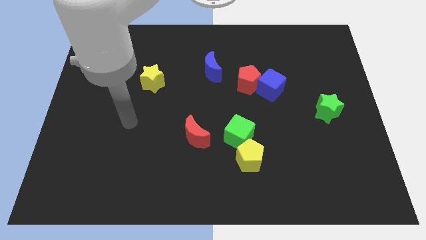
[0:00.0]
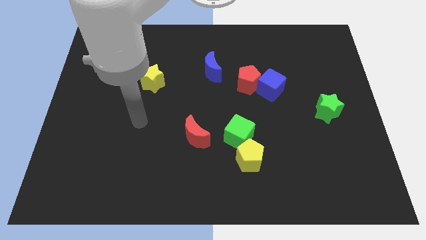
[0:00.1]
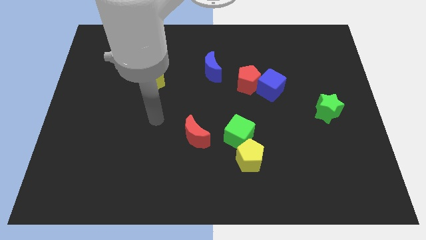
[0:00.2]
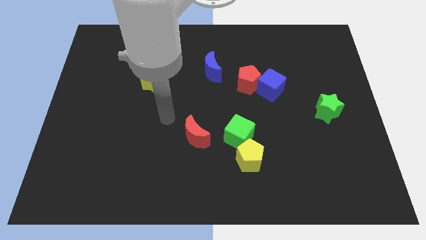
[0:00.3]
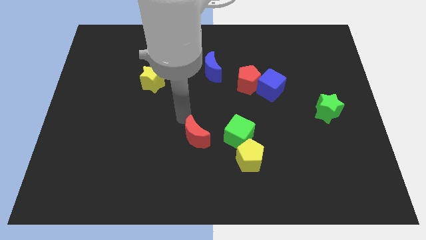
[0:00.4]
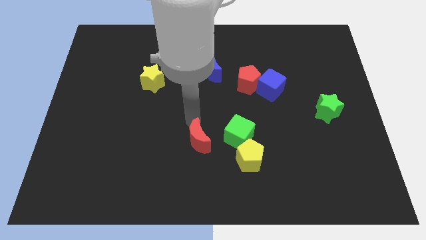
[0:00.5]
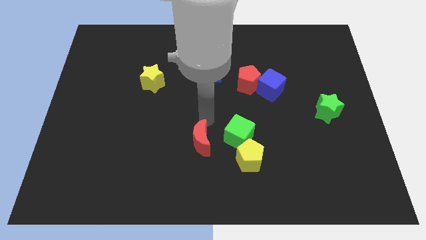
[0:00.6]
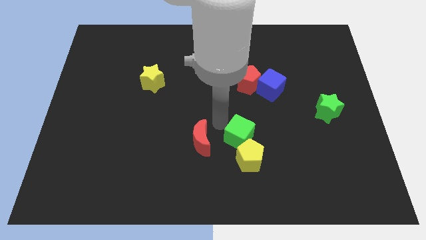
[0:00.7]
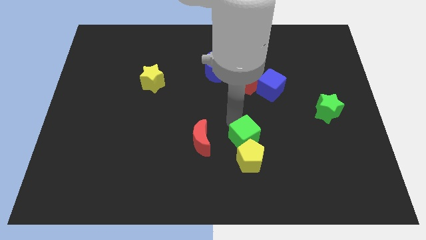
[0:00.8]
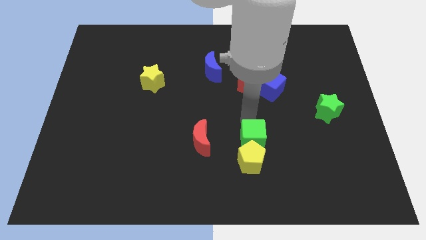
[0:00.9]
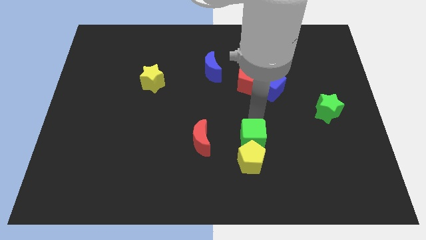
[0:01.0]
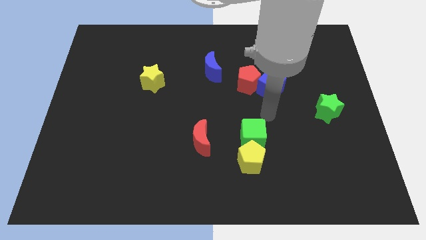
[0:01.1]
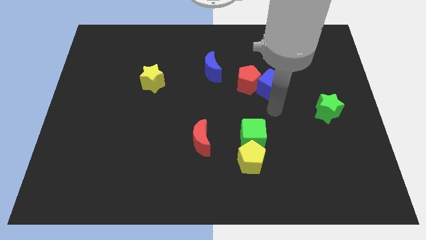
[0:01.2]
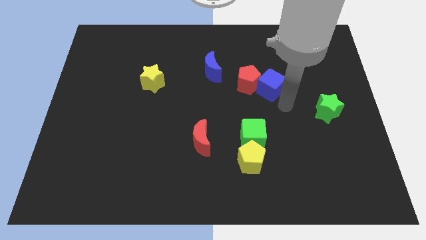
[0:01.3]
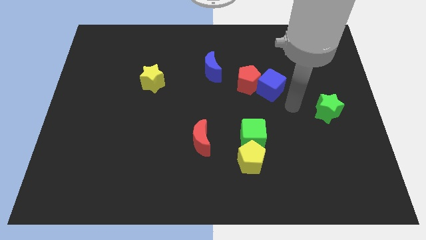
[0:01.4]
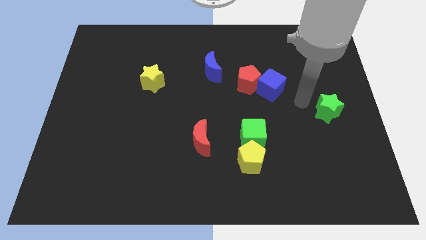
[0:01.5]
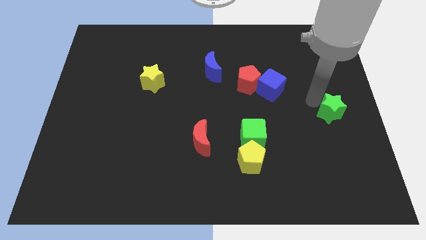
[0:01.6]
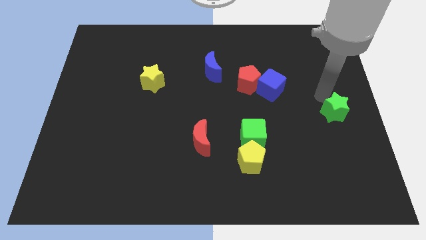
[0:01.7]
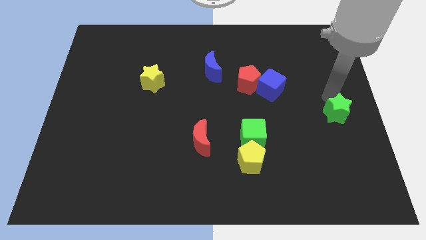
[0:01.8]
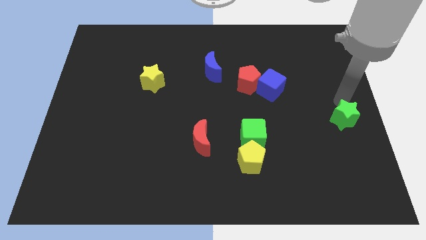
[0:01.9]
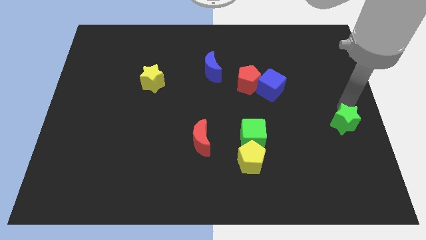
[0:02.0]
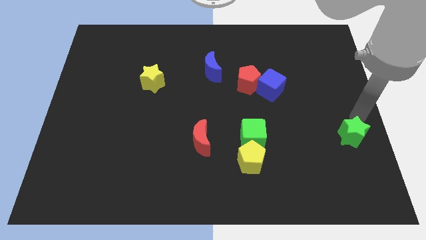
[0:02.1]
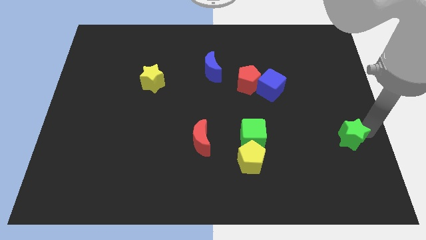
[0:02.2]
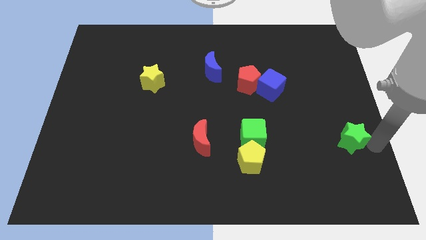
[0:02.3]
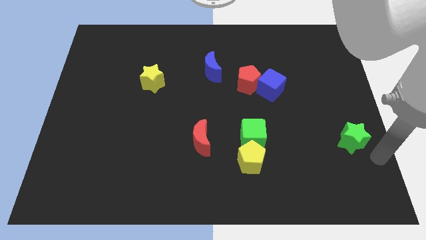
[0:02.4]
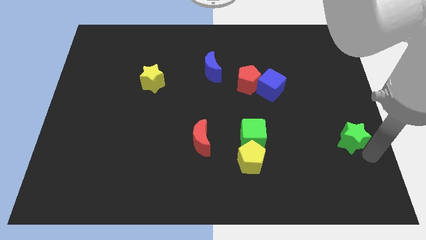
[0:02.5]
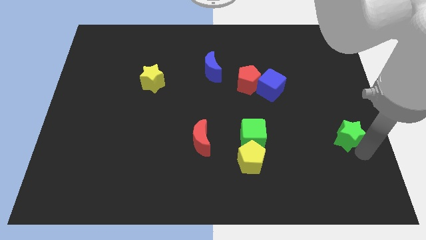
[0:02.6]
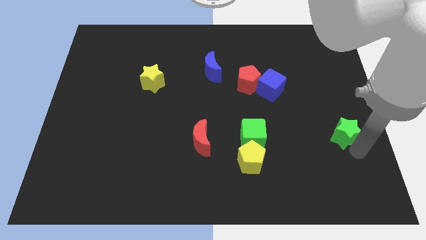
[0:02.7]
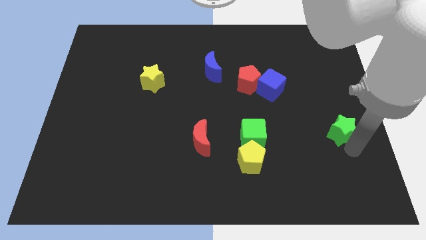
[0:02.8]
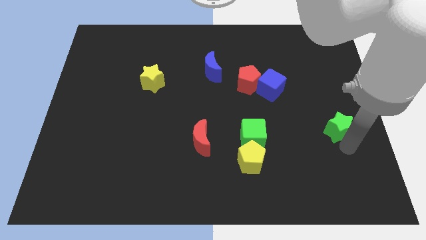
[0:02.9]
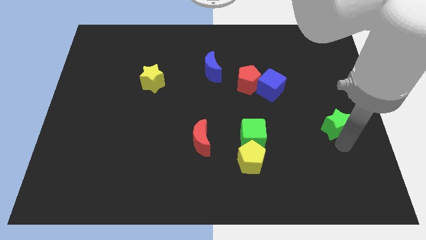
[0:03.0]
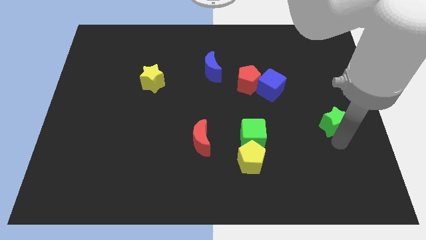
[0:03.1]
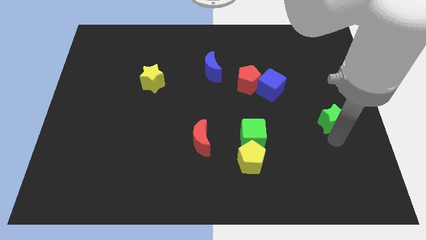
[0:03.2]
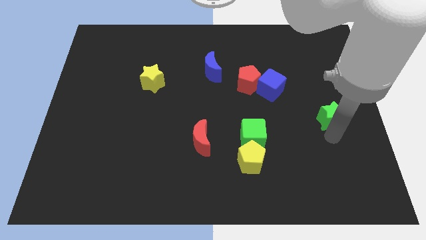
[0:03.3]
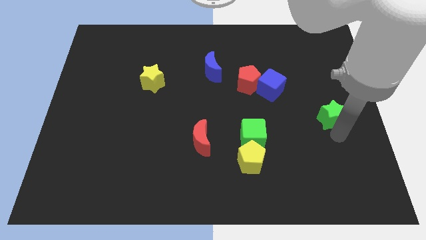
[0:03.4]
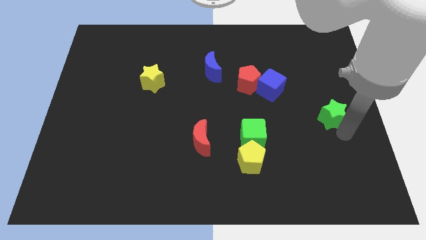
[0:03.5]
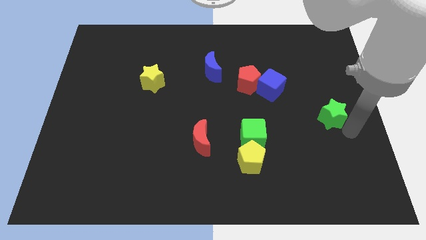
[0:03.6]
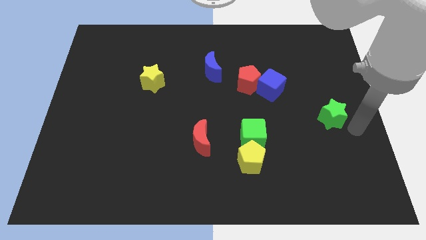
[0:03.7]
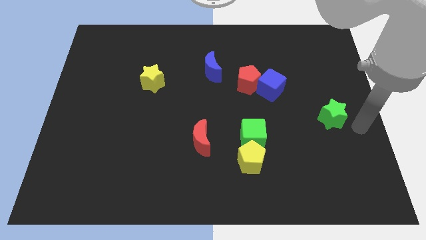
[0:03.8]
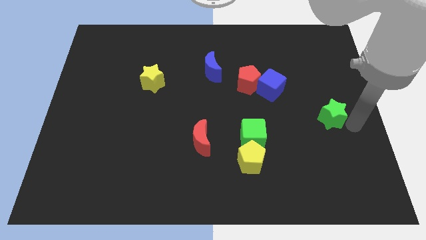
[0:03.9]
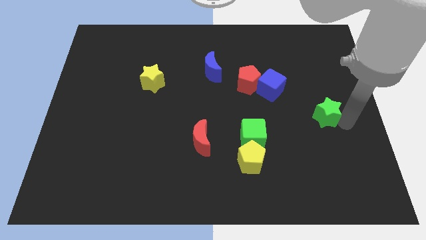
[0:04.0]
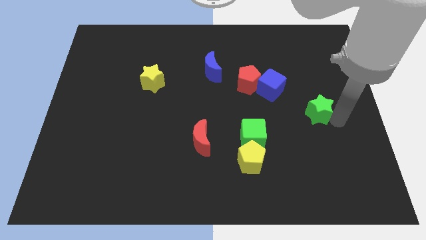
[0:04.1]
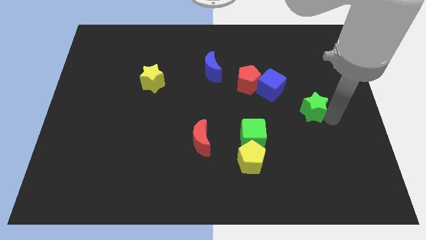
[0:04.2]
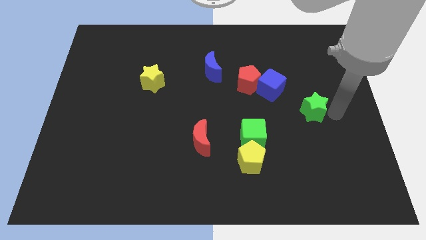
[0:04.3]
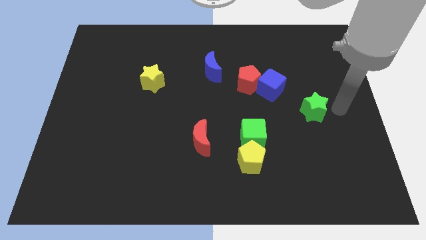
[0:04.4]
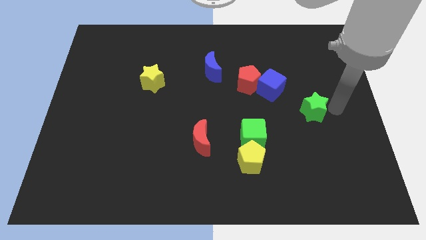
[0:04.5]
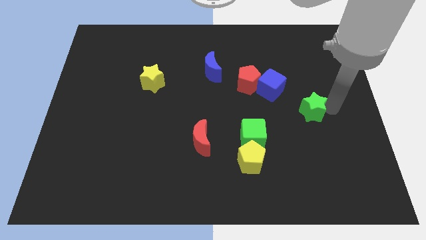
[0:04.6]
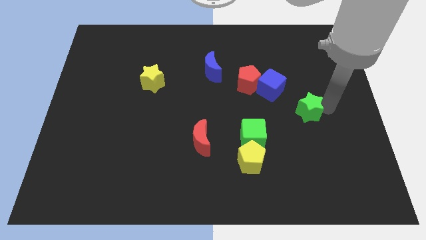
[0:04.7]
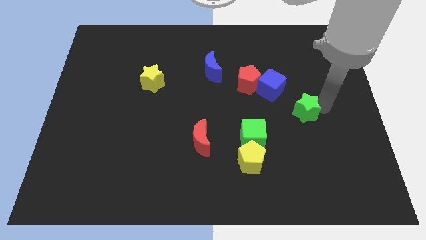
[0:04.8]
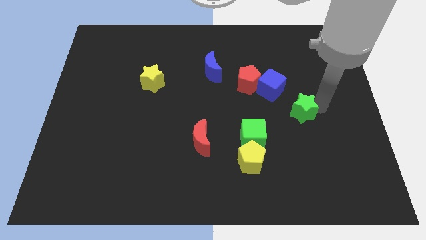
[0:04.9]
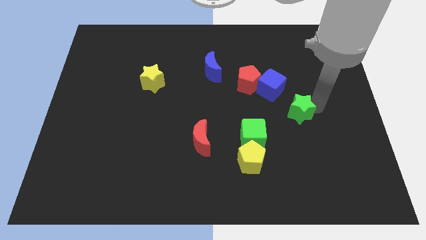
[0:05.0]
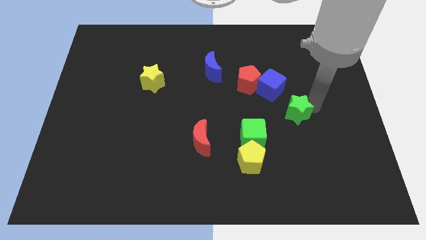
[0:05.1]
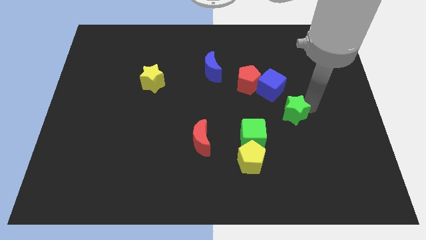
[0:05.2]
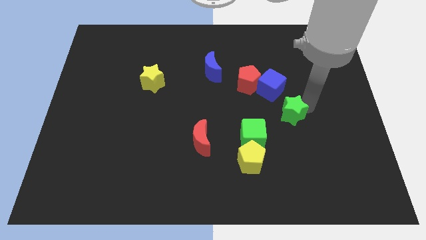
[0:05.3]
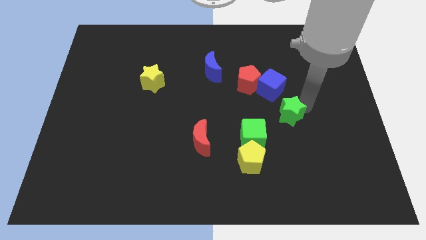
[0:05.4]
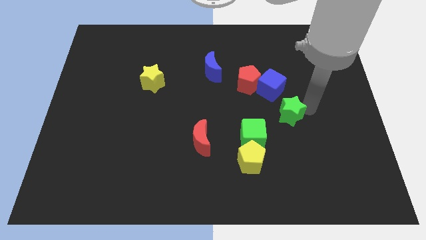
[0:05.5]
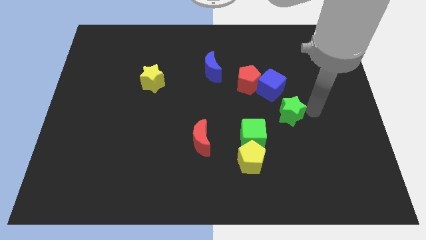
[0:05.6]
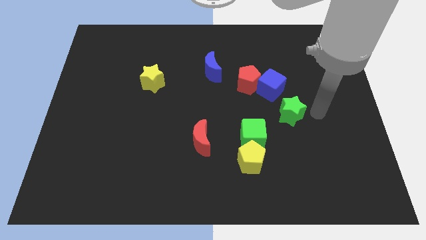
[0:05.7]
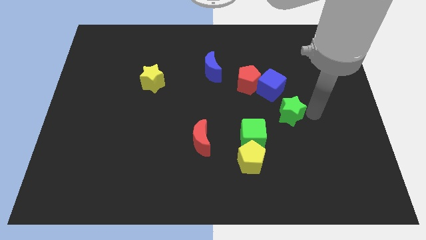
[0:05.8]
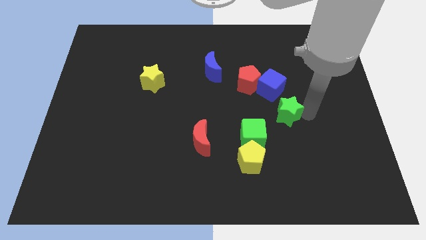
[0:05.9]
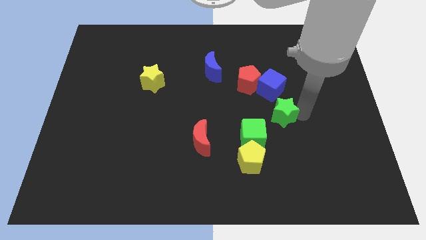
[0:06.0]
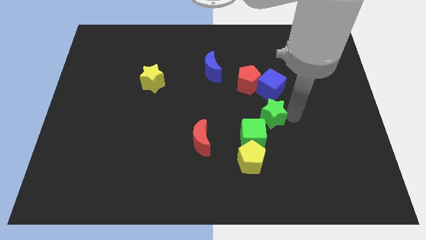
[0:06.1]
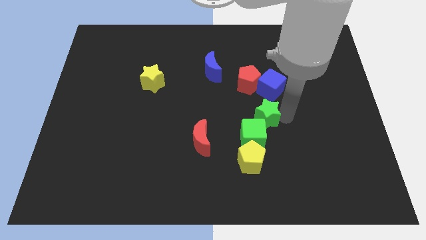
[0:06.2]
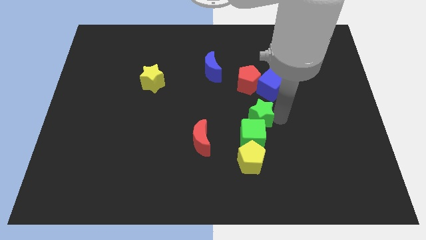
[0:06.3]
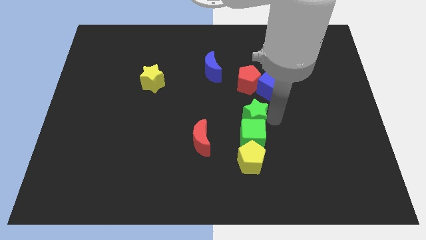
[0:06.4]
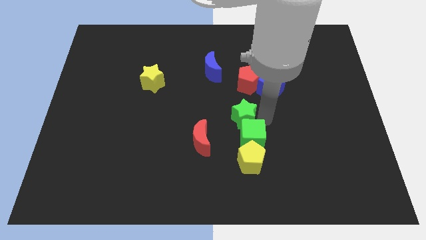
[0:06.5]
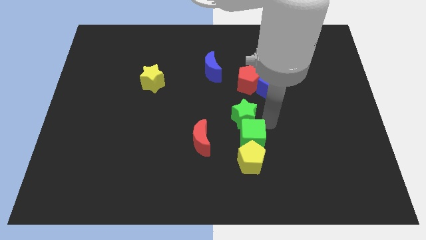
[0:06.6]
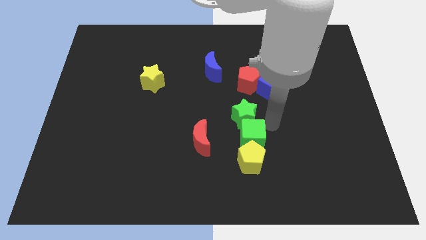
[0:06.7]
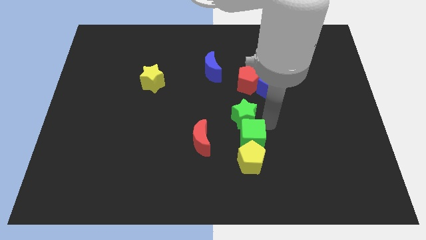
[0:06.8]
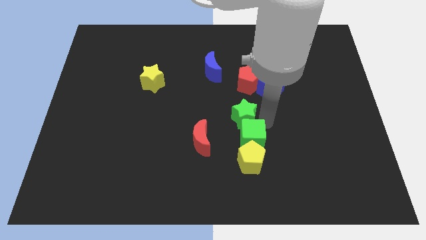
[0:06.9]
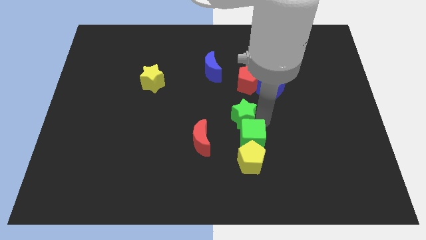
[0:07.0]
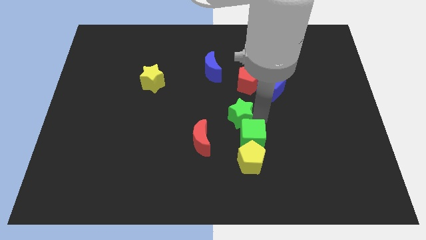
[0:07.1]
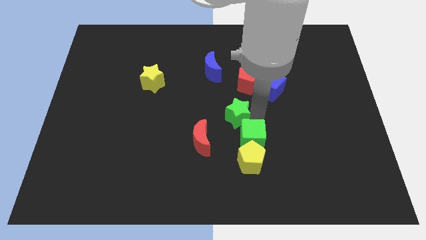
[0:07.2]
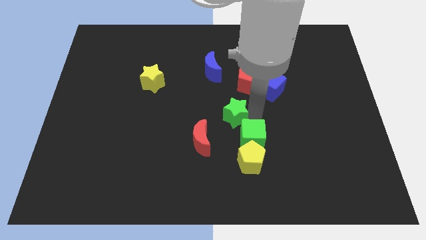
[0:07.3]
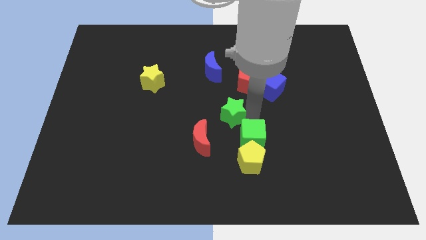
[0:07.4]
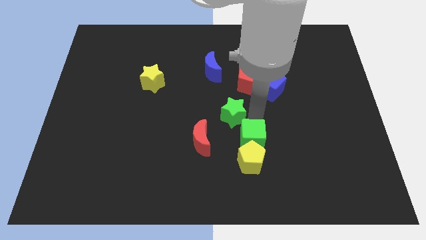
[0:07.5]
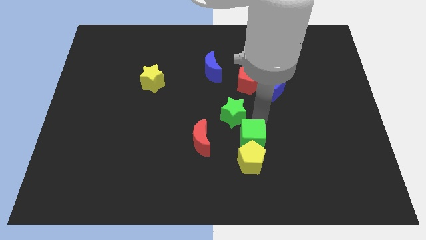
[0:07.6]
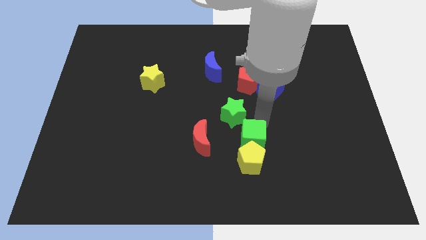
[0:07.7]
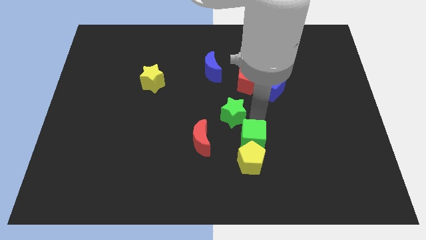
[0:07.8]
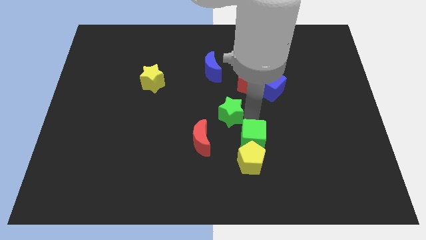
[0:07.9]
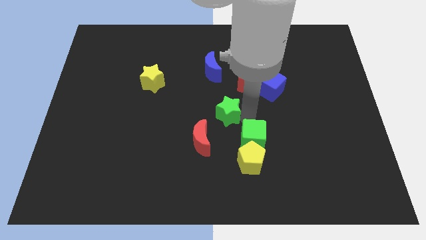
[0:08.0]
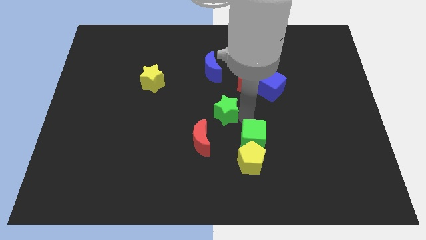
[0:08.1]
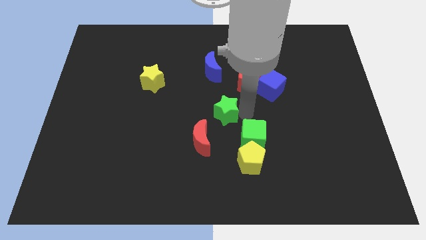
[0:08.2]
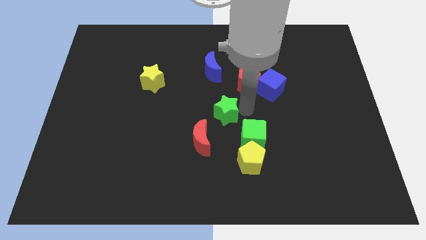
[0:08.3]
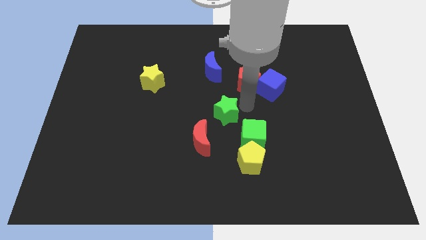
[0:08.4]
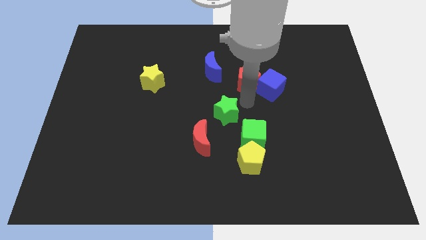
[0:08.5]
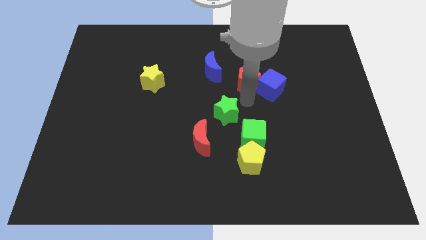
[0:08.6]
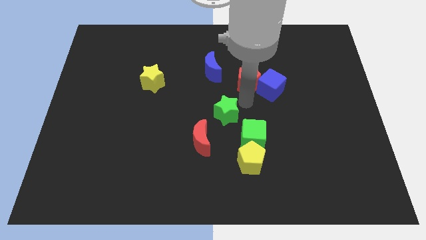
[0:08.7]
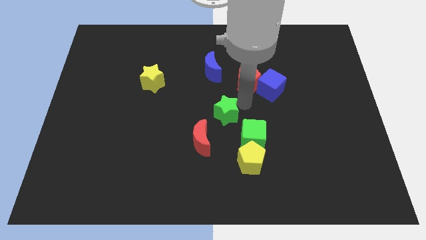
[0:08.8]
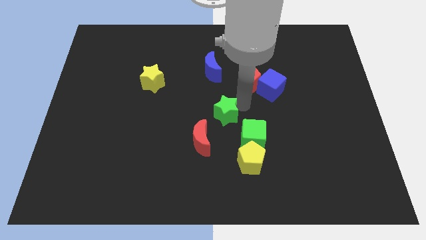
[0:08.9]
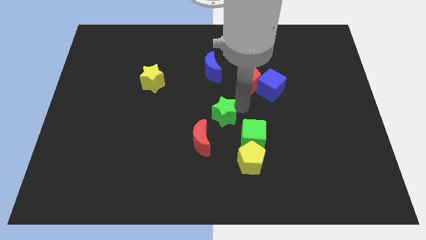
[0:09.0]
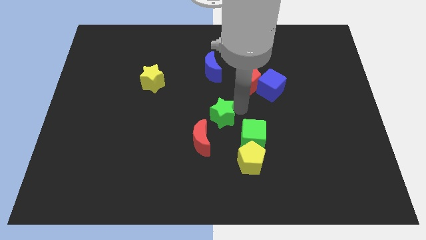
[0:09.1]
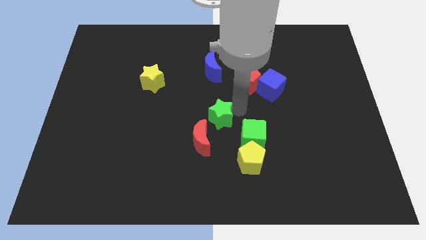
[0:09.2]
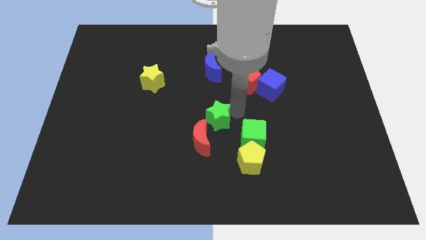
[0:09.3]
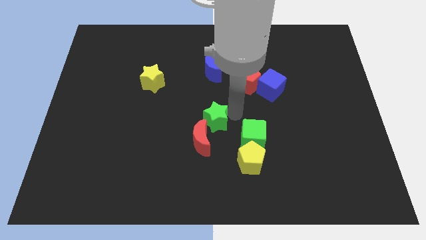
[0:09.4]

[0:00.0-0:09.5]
push the green star towards the red moon
